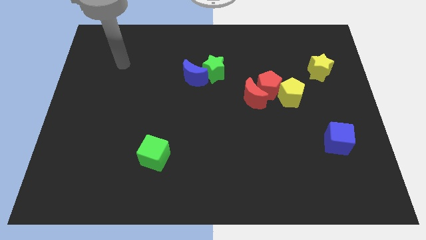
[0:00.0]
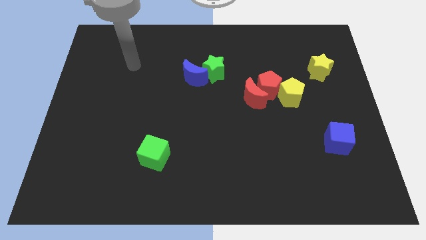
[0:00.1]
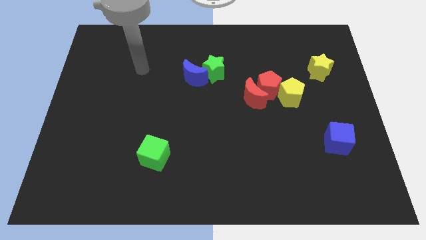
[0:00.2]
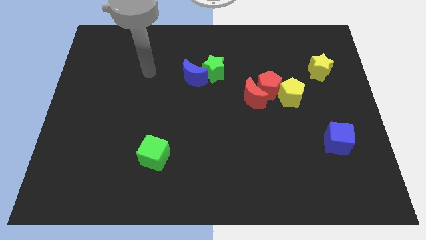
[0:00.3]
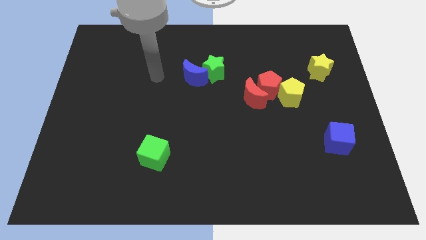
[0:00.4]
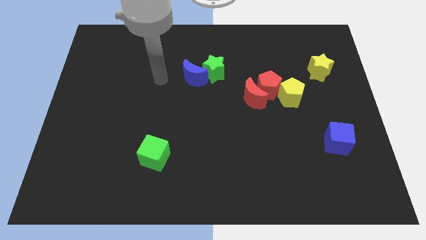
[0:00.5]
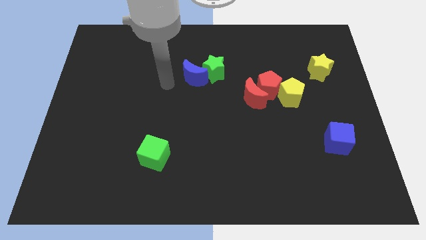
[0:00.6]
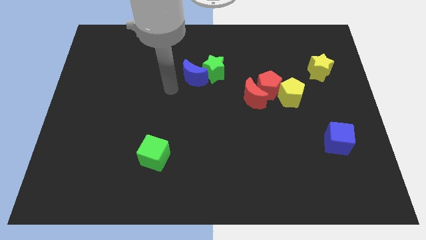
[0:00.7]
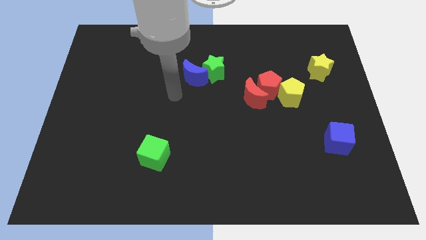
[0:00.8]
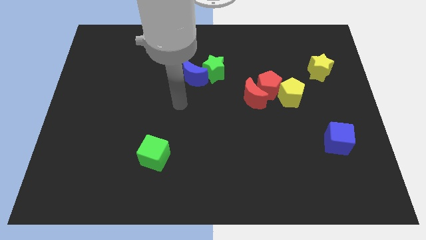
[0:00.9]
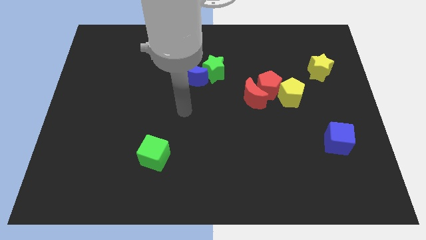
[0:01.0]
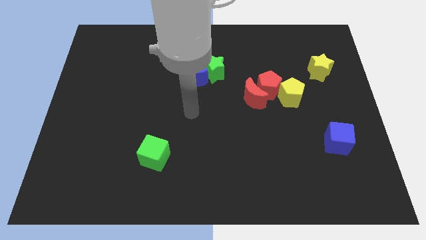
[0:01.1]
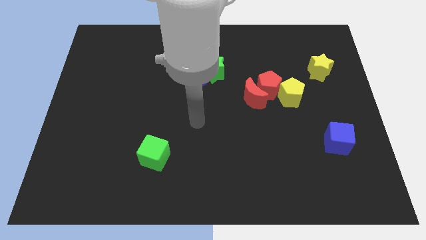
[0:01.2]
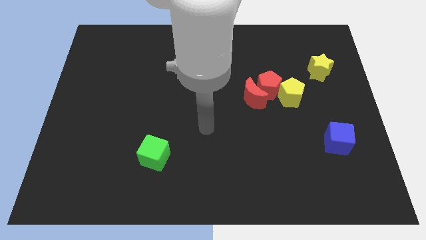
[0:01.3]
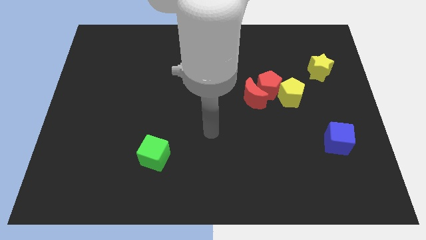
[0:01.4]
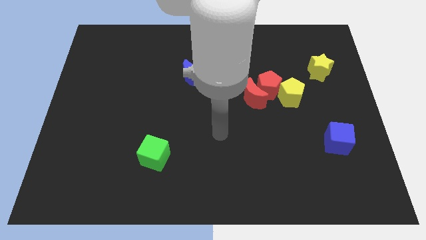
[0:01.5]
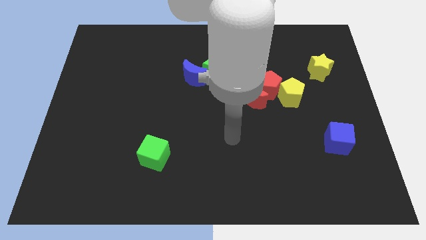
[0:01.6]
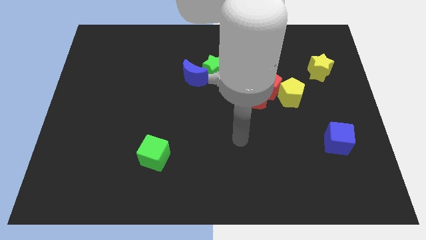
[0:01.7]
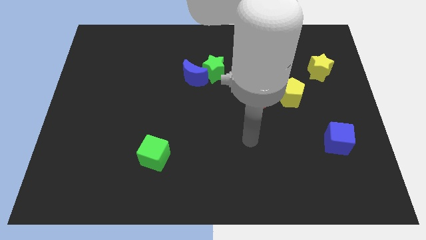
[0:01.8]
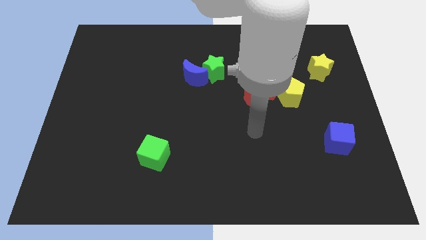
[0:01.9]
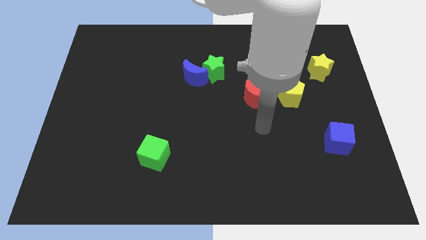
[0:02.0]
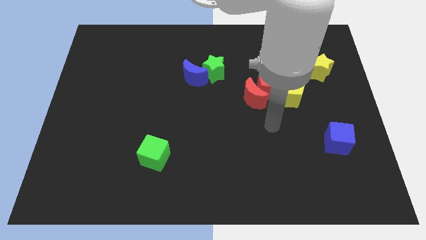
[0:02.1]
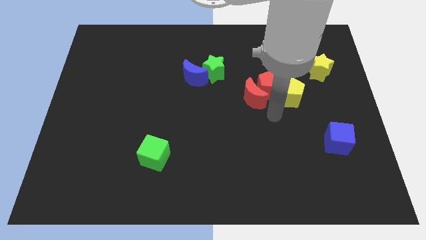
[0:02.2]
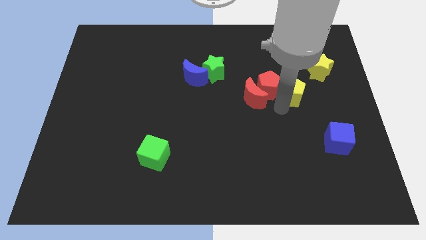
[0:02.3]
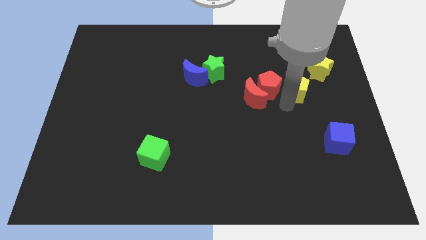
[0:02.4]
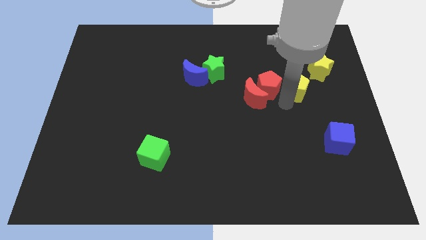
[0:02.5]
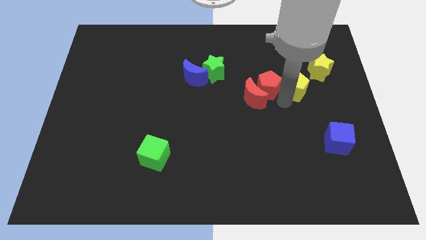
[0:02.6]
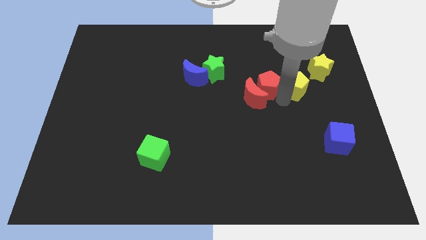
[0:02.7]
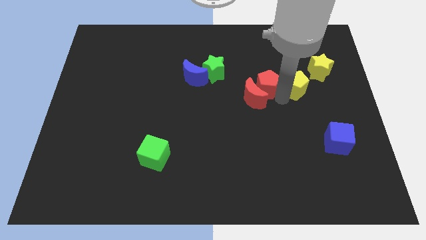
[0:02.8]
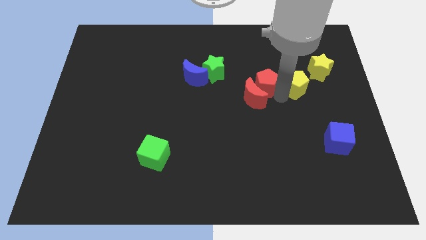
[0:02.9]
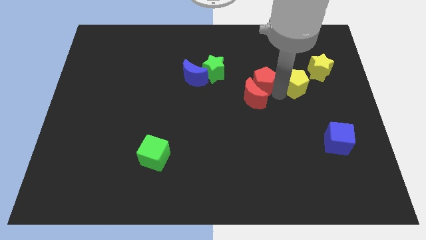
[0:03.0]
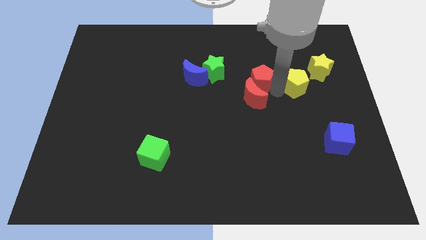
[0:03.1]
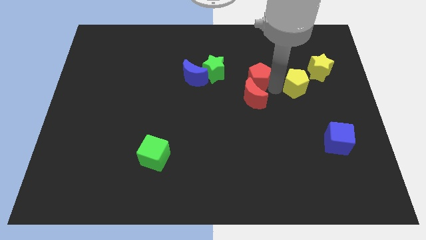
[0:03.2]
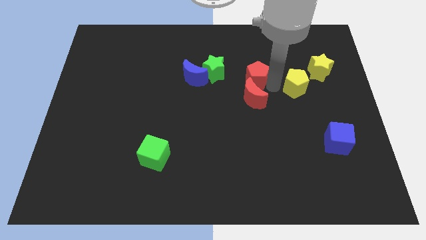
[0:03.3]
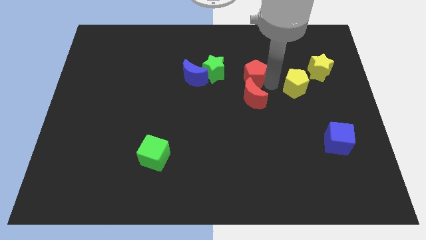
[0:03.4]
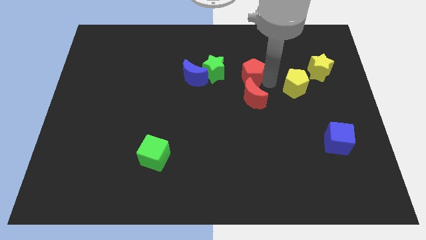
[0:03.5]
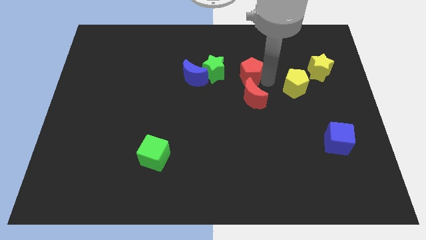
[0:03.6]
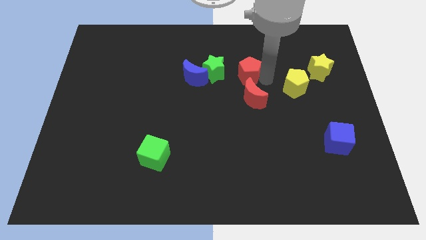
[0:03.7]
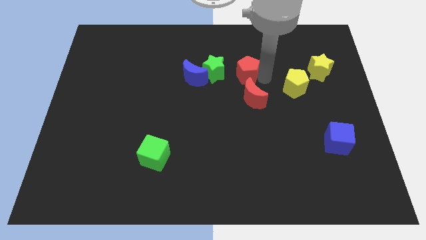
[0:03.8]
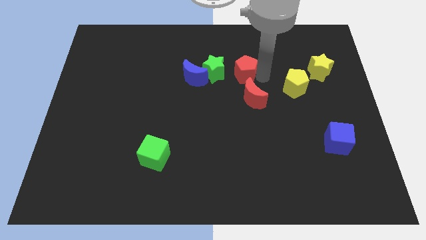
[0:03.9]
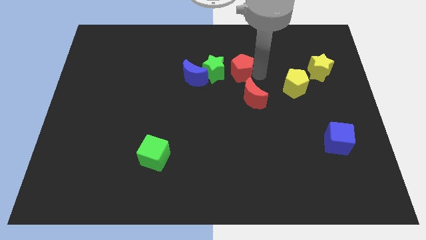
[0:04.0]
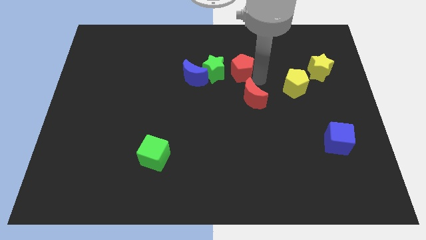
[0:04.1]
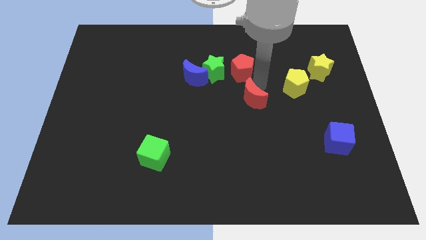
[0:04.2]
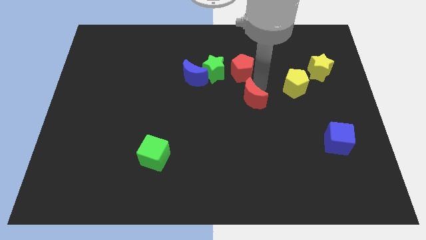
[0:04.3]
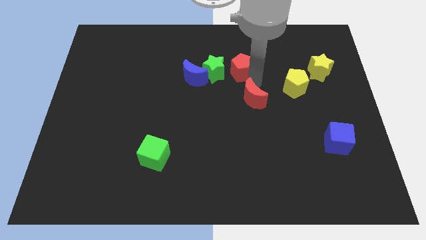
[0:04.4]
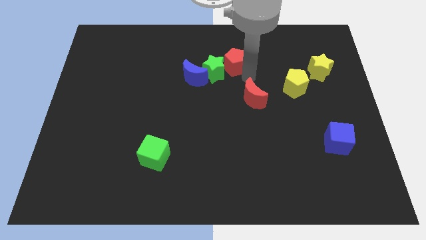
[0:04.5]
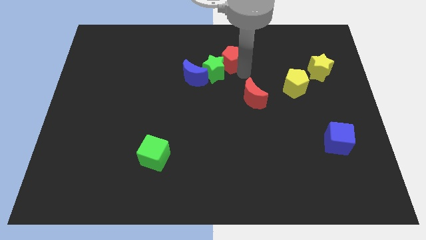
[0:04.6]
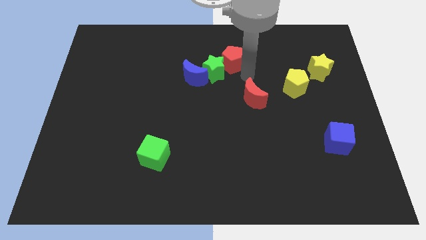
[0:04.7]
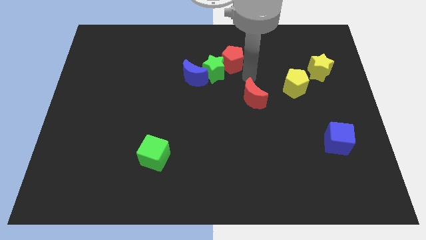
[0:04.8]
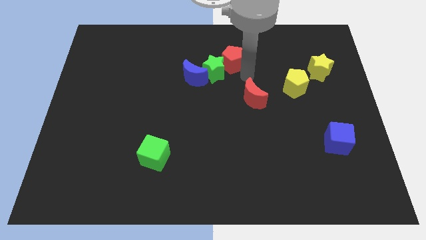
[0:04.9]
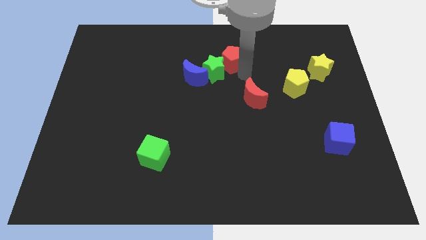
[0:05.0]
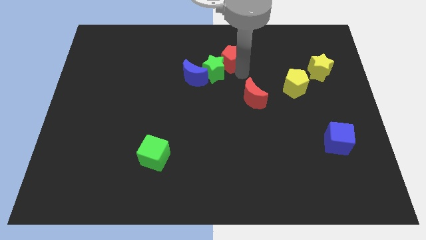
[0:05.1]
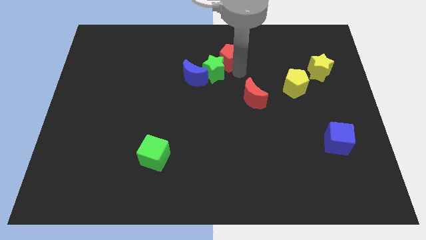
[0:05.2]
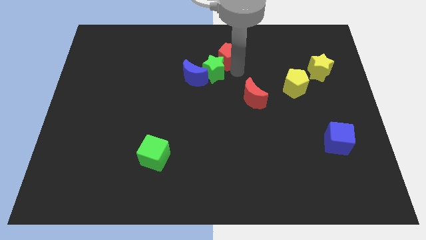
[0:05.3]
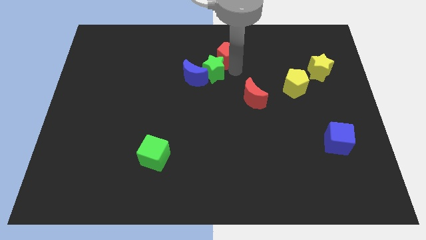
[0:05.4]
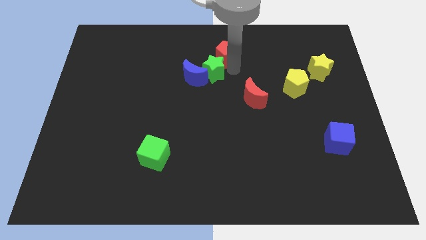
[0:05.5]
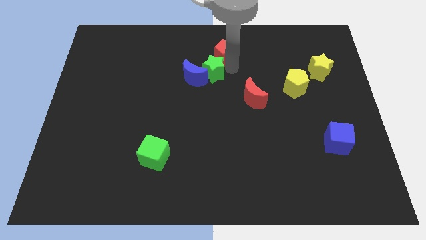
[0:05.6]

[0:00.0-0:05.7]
slide the red pentagon to the towards your base

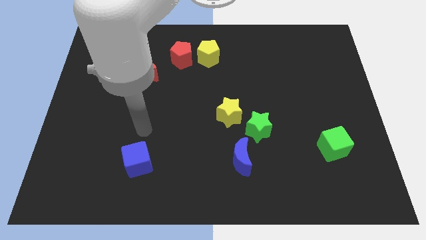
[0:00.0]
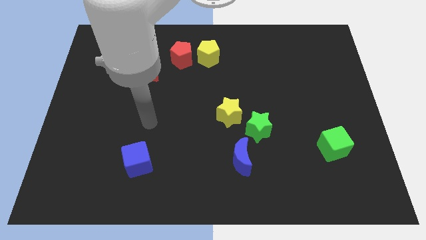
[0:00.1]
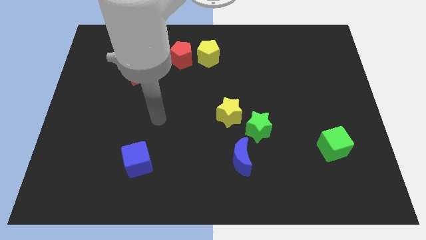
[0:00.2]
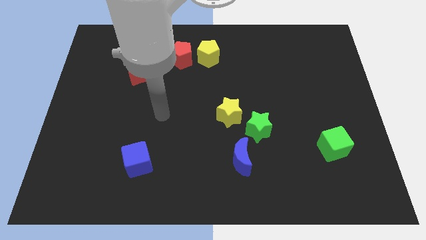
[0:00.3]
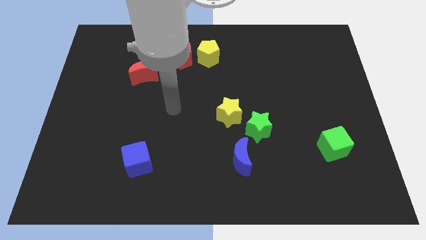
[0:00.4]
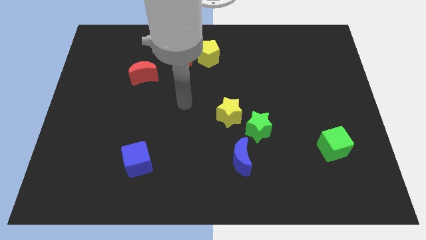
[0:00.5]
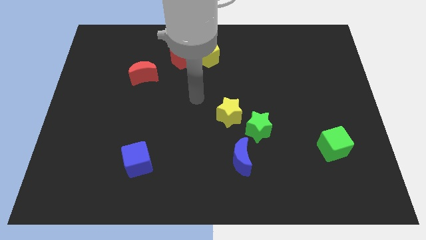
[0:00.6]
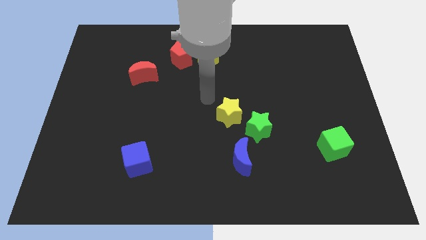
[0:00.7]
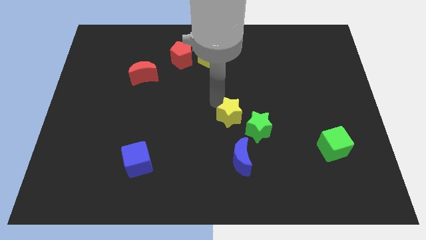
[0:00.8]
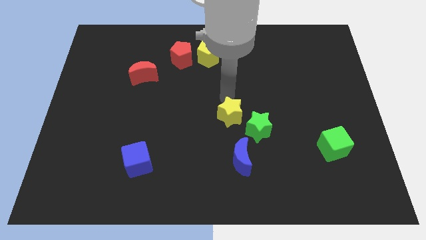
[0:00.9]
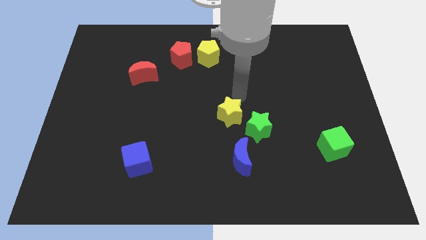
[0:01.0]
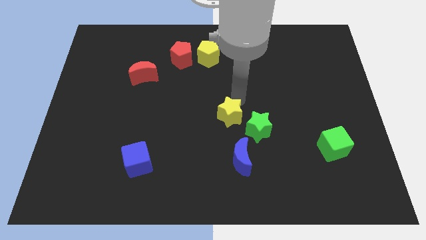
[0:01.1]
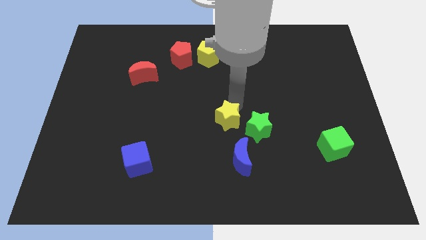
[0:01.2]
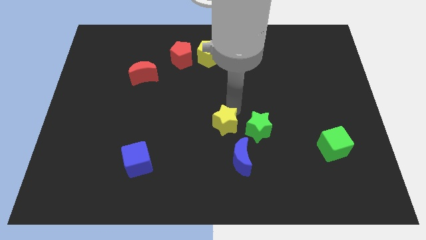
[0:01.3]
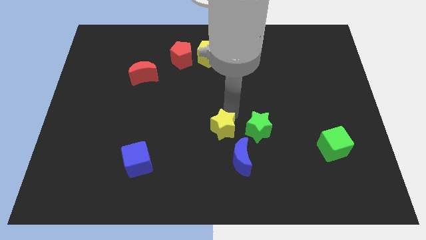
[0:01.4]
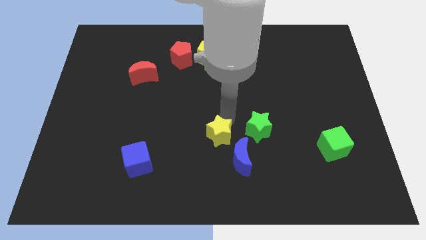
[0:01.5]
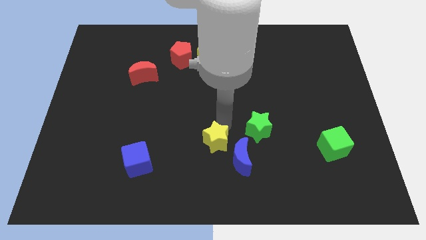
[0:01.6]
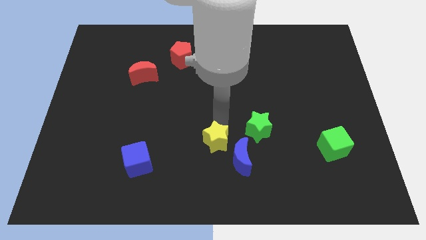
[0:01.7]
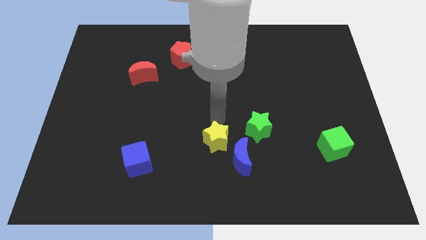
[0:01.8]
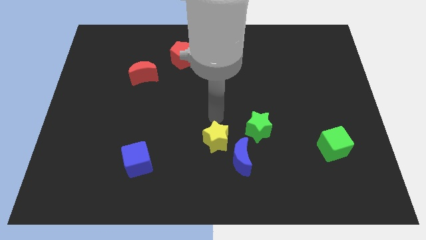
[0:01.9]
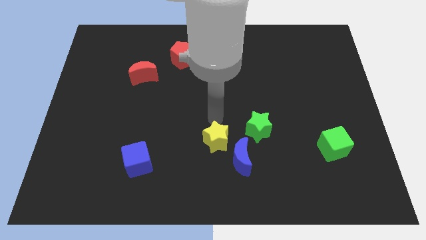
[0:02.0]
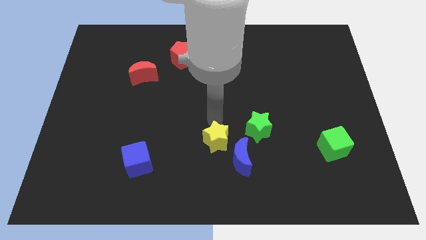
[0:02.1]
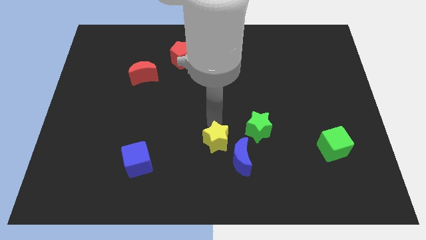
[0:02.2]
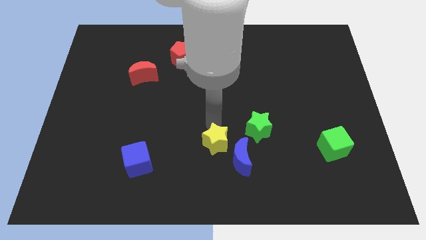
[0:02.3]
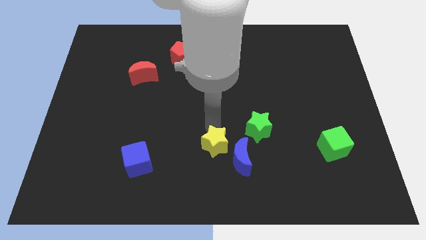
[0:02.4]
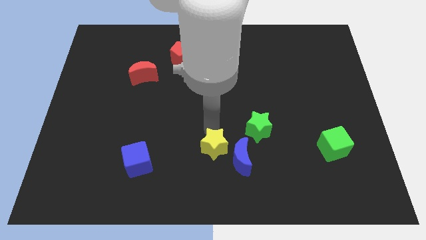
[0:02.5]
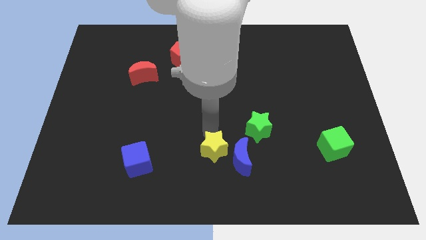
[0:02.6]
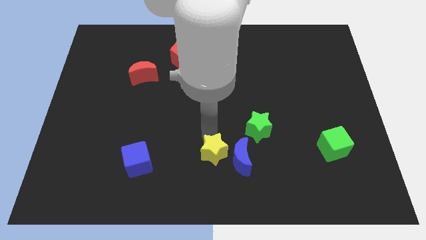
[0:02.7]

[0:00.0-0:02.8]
slide the yellow star to the bottom
